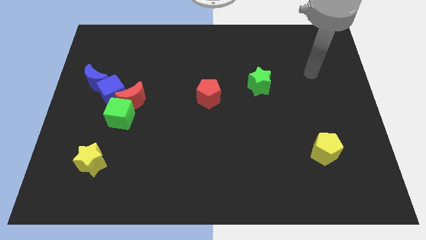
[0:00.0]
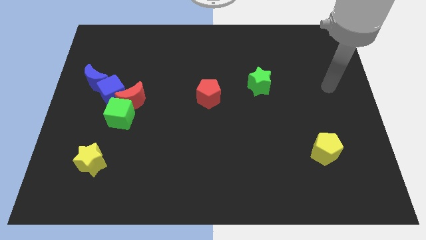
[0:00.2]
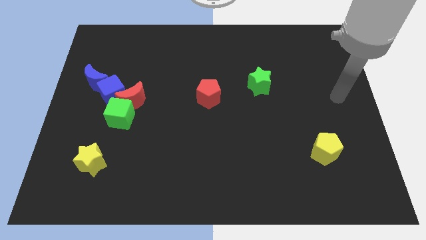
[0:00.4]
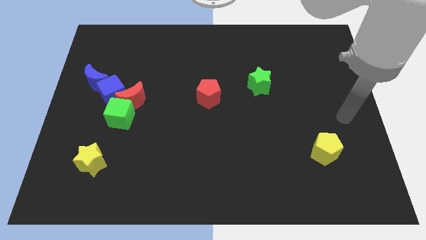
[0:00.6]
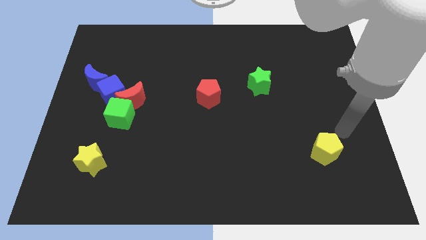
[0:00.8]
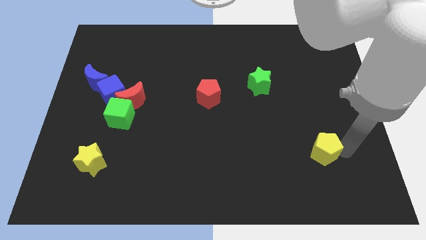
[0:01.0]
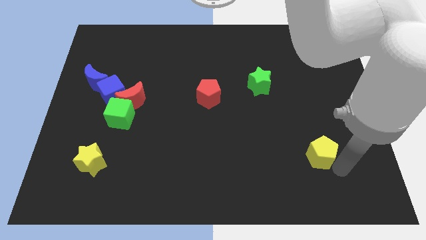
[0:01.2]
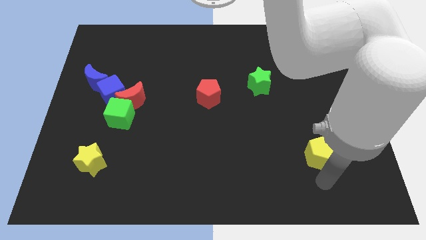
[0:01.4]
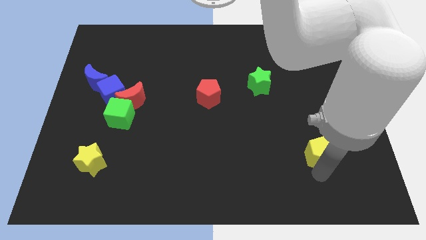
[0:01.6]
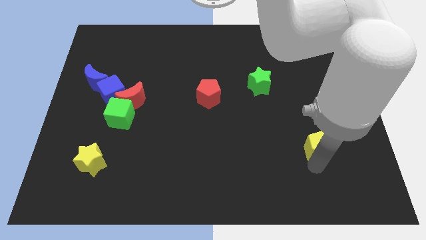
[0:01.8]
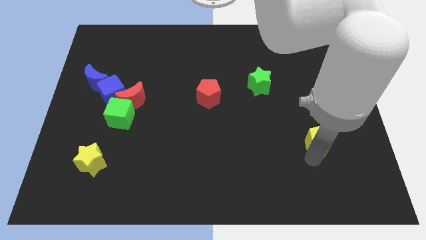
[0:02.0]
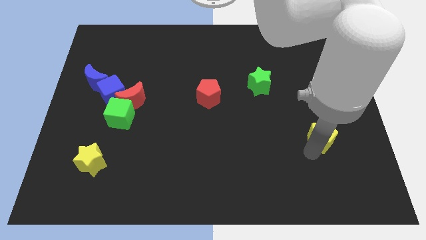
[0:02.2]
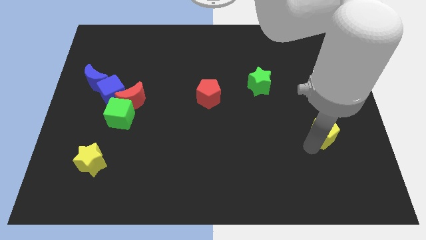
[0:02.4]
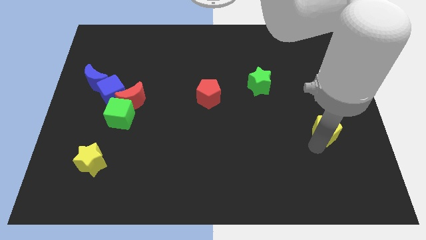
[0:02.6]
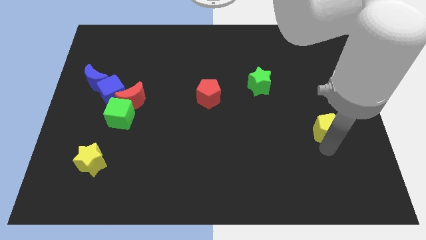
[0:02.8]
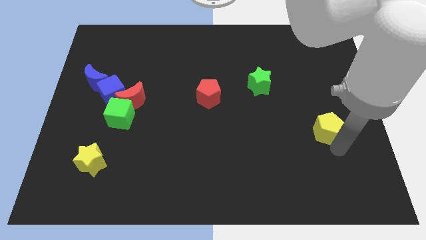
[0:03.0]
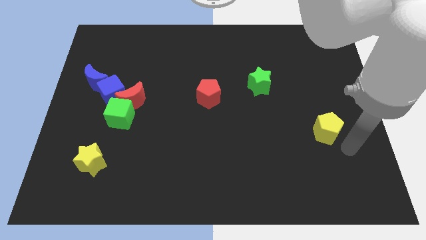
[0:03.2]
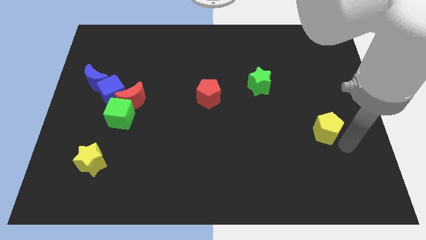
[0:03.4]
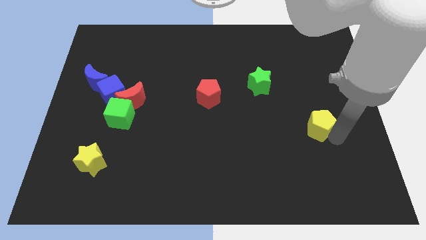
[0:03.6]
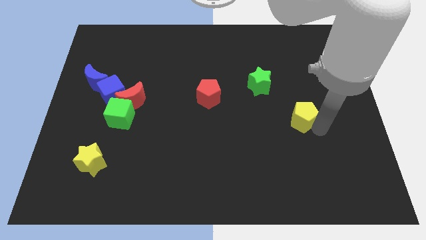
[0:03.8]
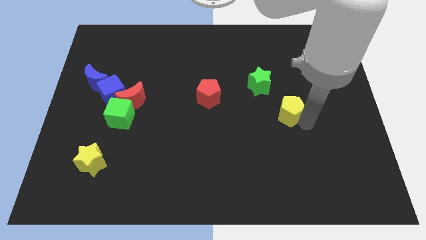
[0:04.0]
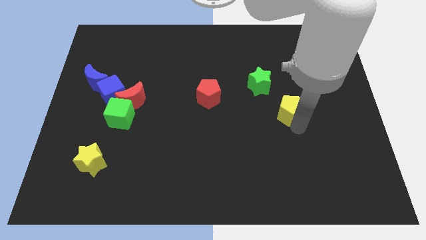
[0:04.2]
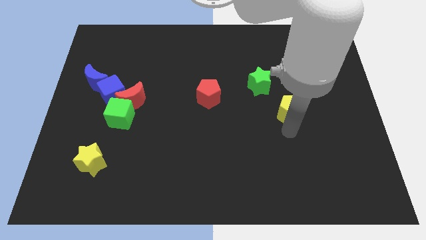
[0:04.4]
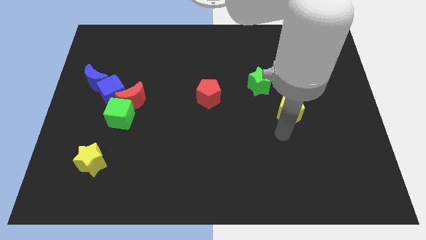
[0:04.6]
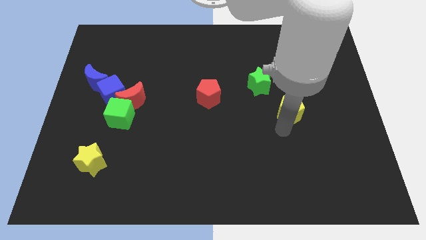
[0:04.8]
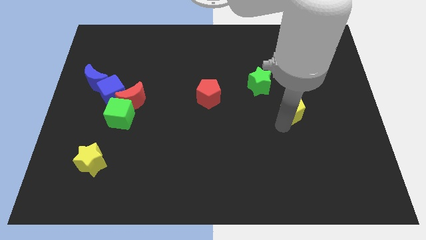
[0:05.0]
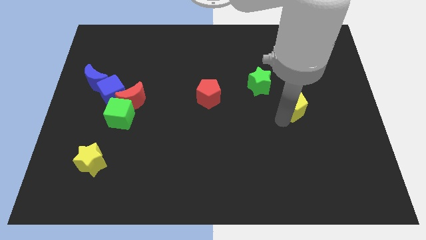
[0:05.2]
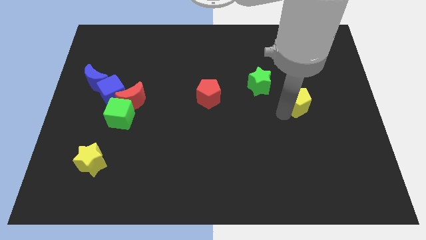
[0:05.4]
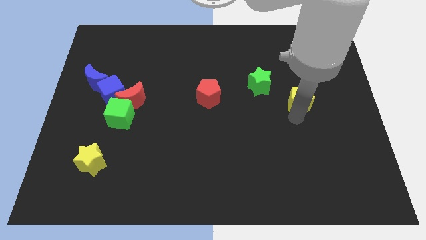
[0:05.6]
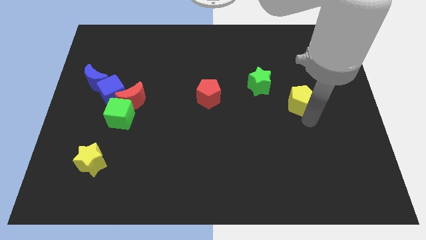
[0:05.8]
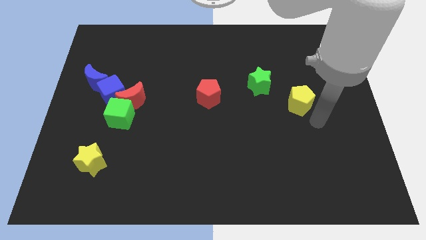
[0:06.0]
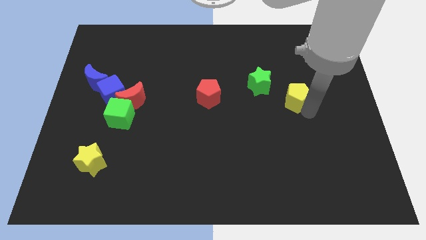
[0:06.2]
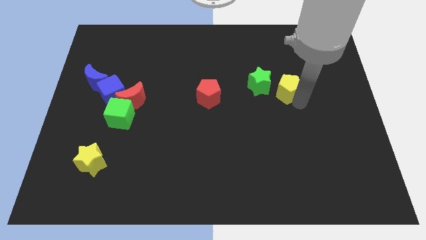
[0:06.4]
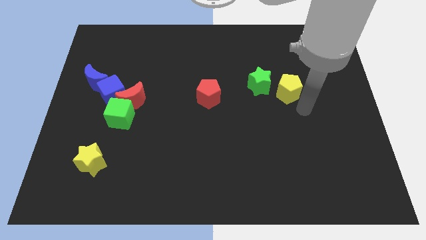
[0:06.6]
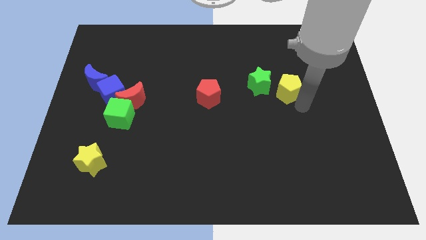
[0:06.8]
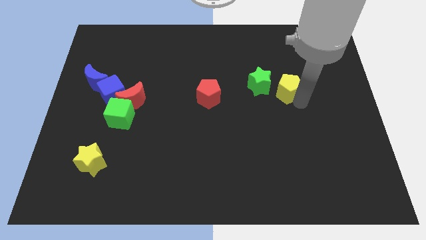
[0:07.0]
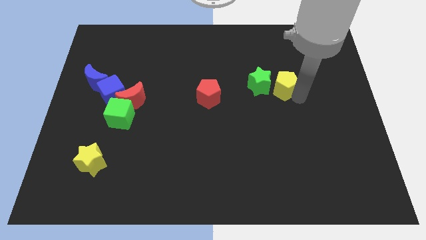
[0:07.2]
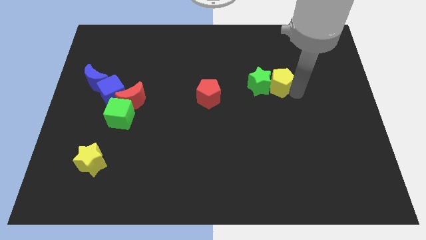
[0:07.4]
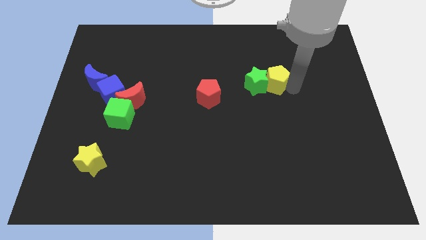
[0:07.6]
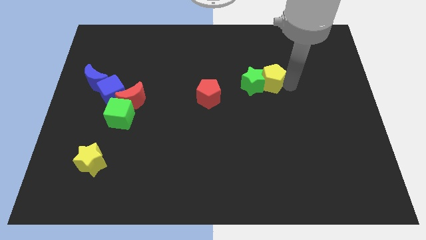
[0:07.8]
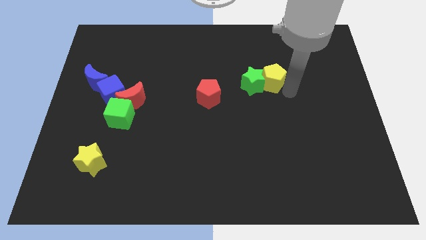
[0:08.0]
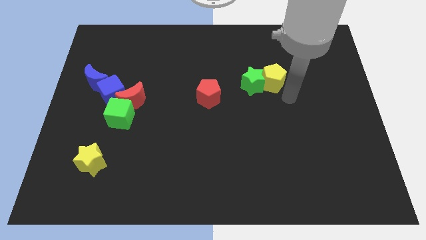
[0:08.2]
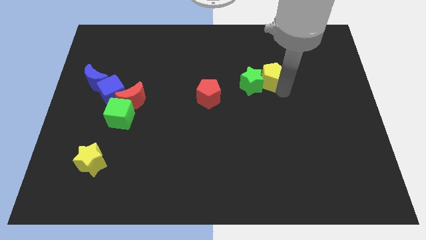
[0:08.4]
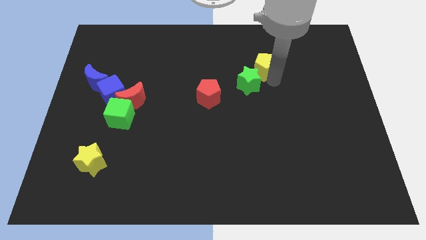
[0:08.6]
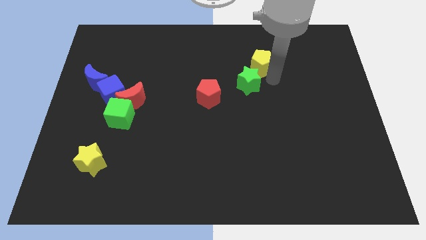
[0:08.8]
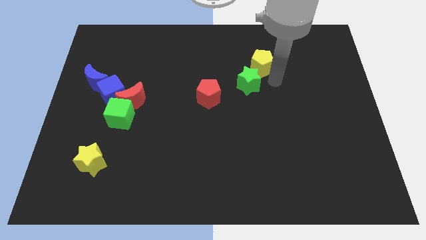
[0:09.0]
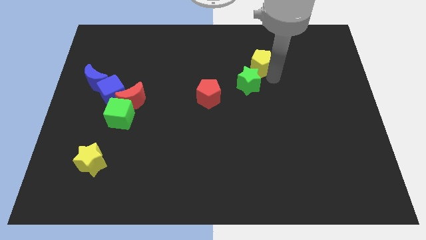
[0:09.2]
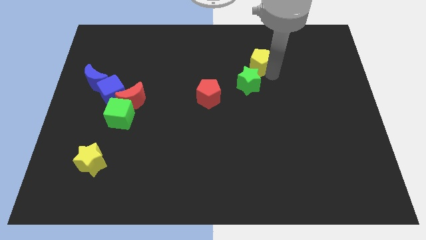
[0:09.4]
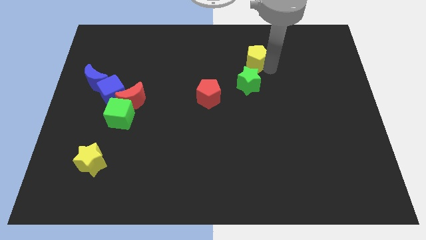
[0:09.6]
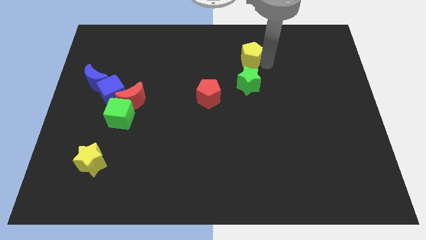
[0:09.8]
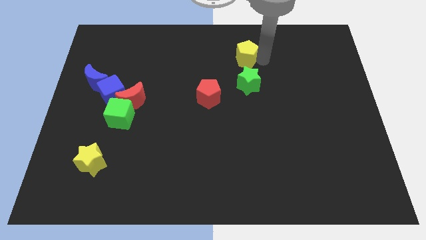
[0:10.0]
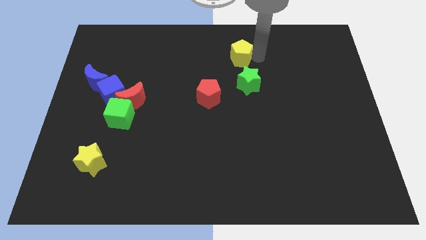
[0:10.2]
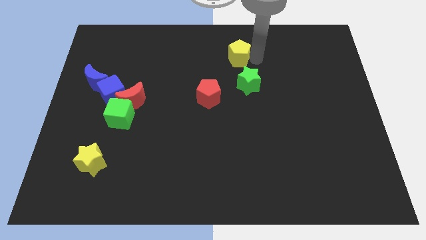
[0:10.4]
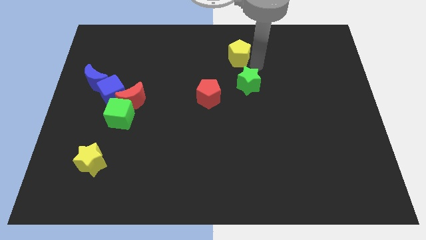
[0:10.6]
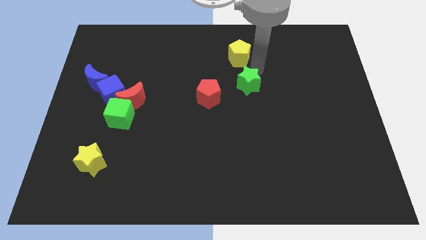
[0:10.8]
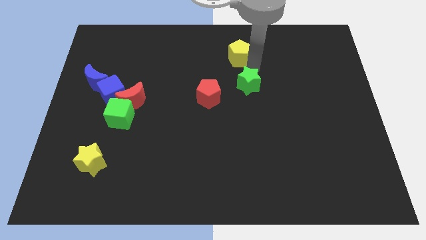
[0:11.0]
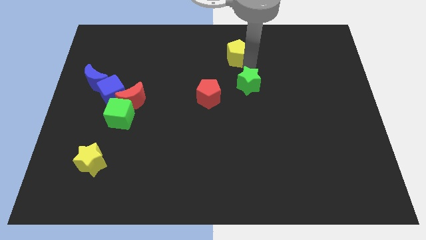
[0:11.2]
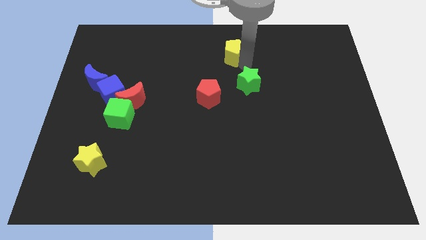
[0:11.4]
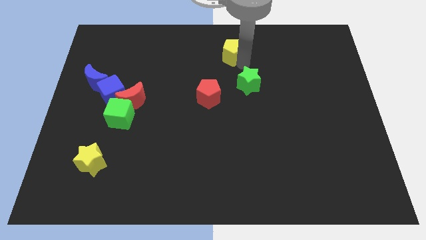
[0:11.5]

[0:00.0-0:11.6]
put the yellow pentagon to the top

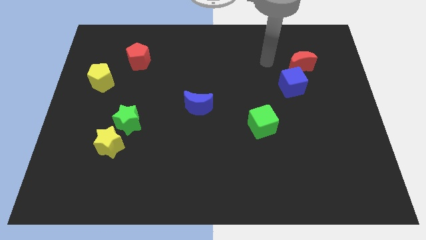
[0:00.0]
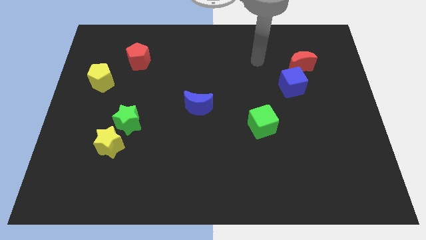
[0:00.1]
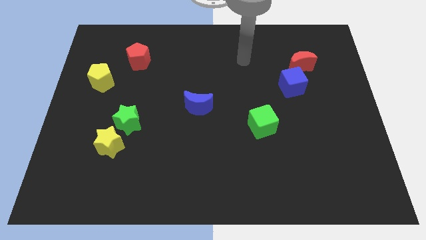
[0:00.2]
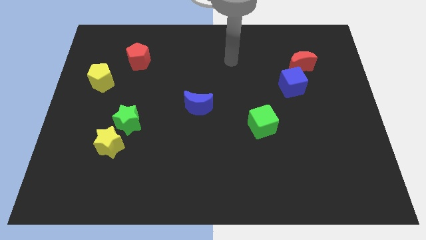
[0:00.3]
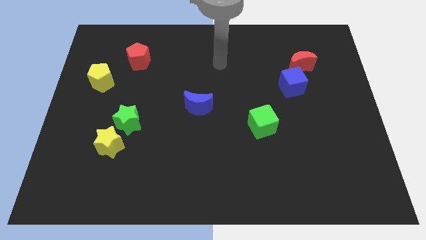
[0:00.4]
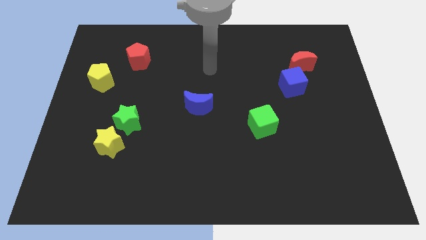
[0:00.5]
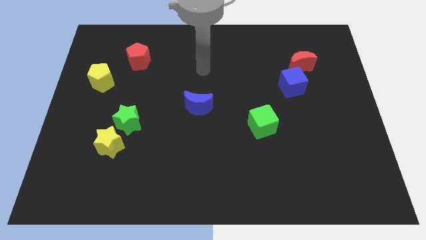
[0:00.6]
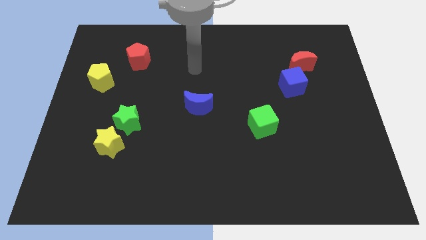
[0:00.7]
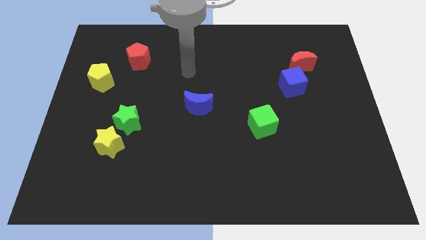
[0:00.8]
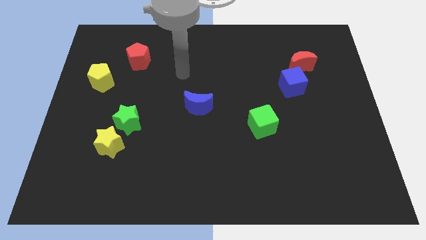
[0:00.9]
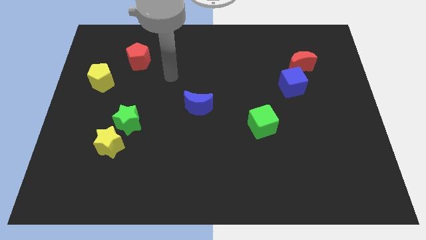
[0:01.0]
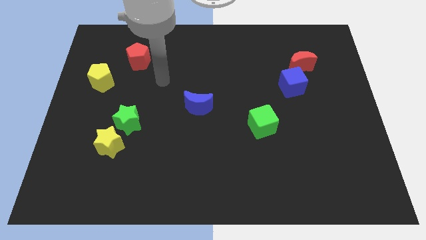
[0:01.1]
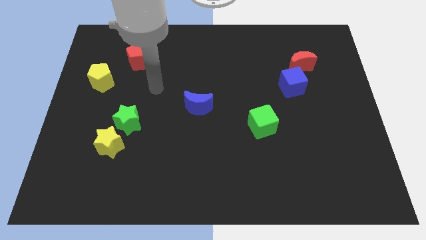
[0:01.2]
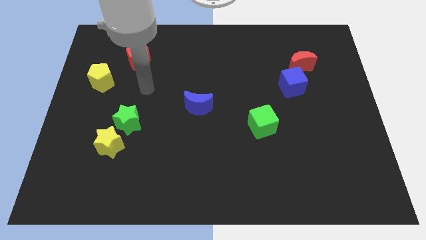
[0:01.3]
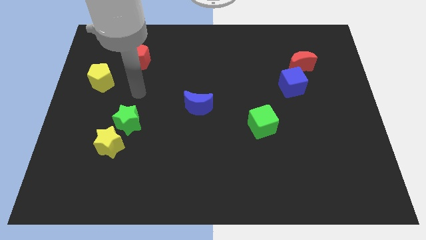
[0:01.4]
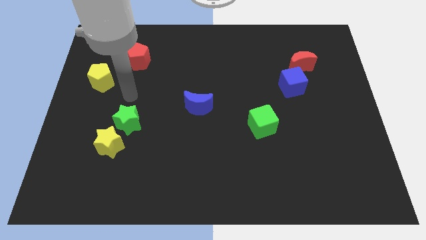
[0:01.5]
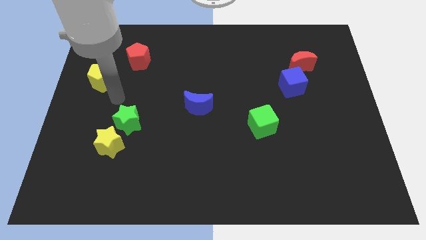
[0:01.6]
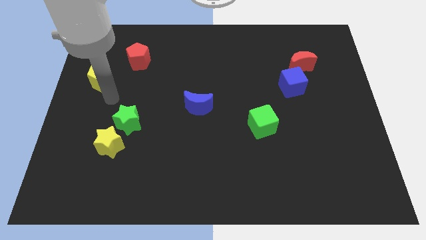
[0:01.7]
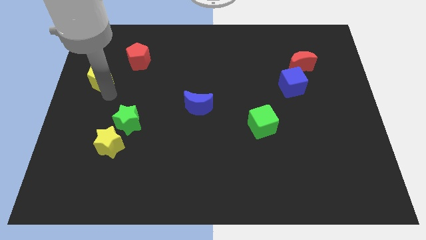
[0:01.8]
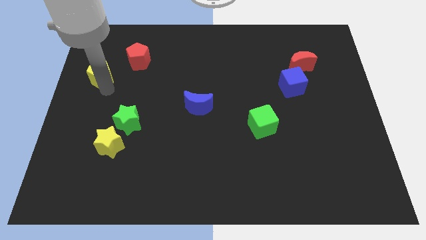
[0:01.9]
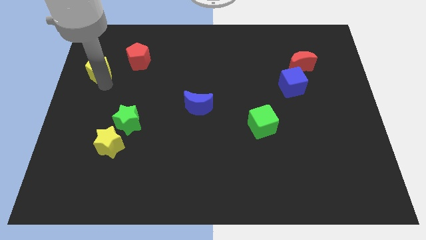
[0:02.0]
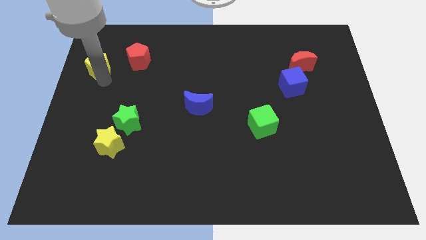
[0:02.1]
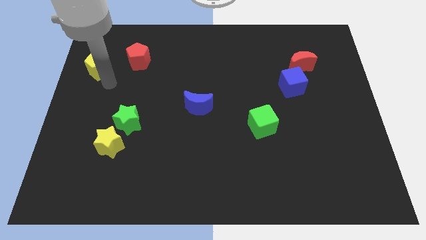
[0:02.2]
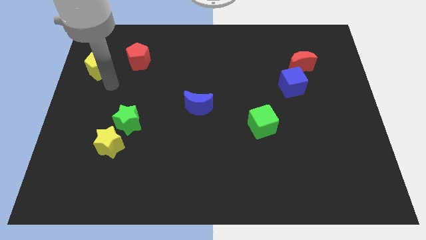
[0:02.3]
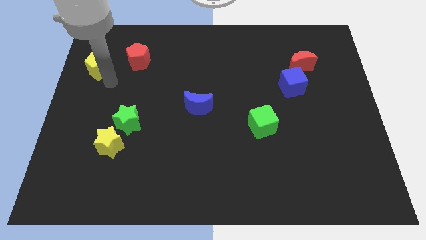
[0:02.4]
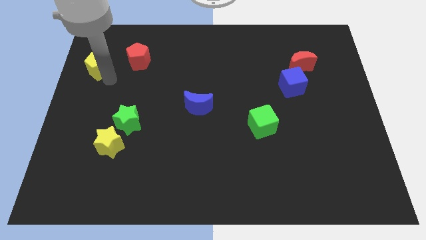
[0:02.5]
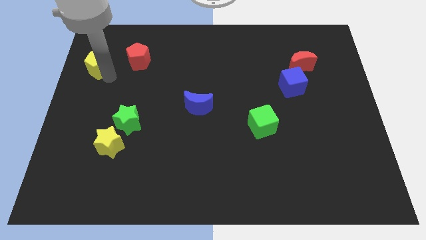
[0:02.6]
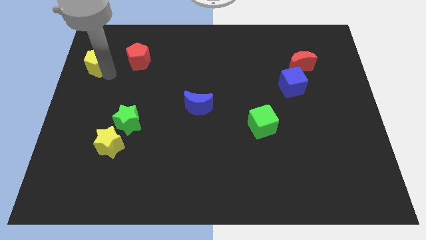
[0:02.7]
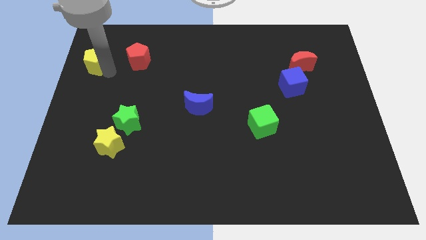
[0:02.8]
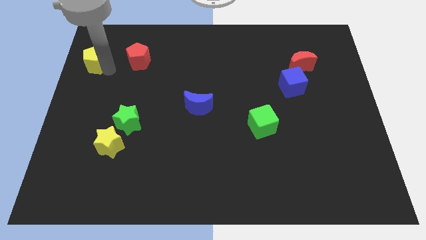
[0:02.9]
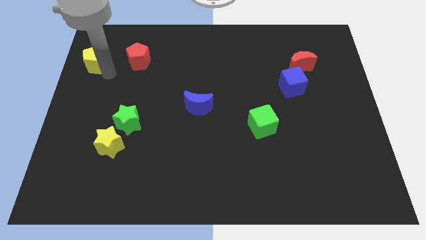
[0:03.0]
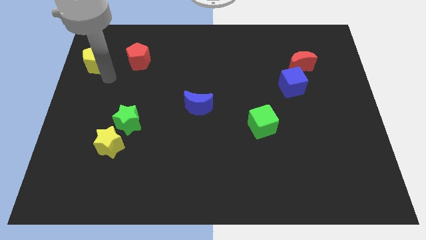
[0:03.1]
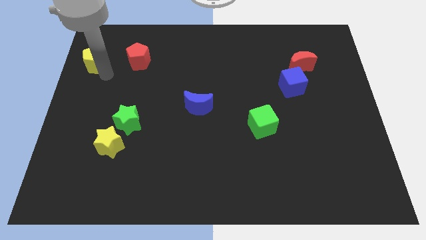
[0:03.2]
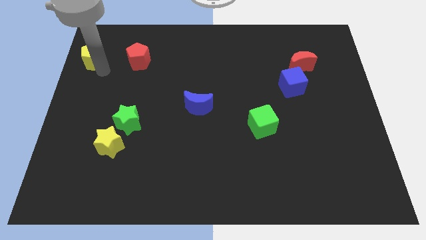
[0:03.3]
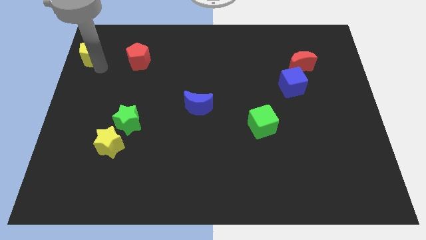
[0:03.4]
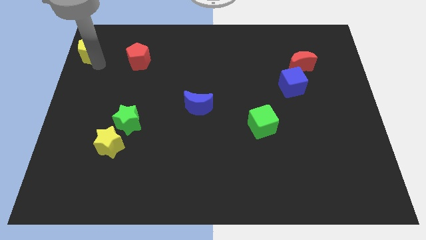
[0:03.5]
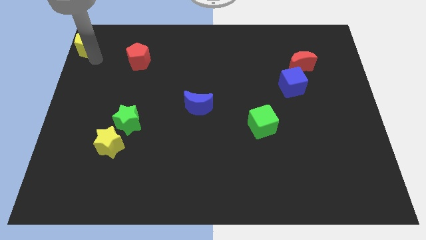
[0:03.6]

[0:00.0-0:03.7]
put the yellow pentagon to the upper left corner
